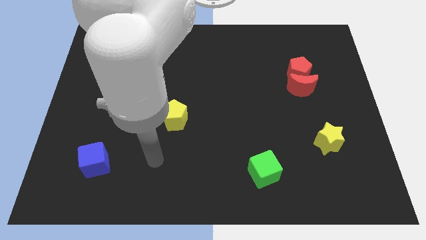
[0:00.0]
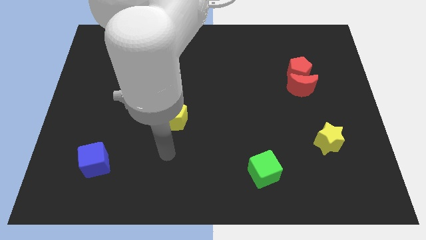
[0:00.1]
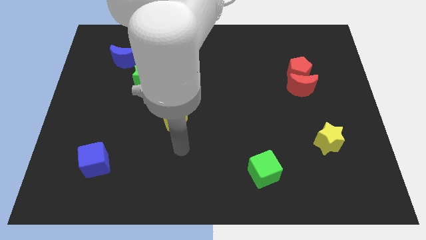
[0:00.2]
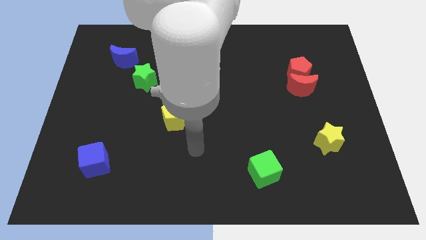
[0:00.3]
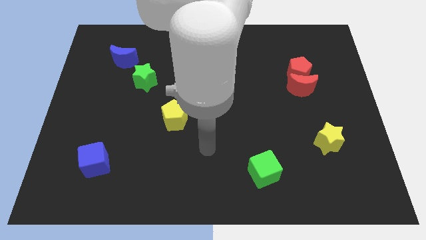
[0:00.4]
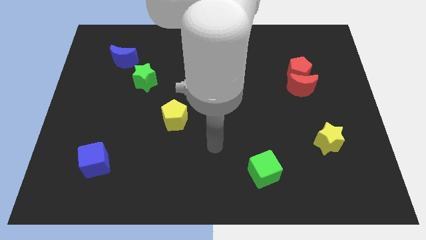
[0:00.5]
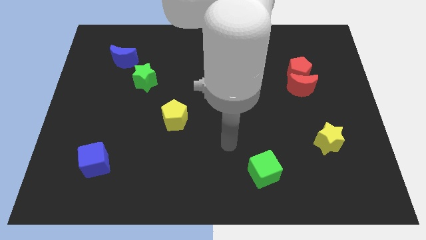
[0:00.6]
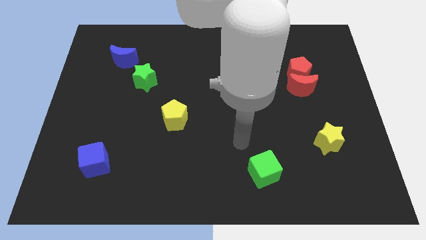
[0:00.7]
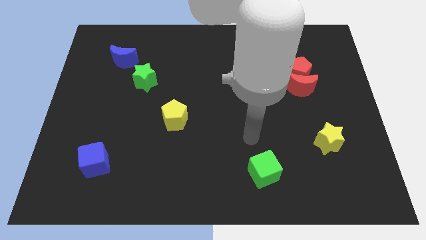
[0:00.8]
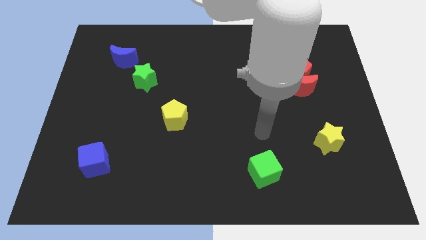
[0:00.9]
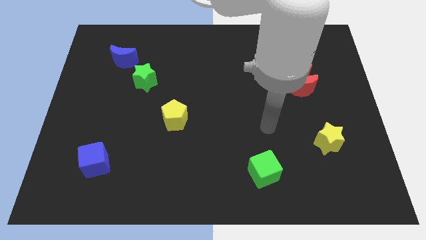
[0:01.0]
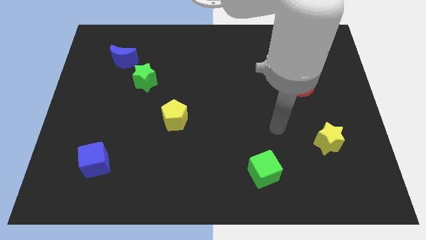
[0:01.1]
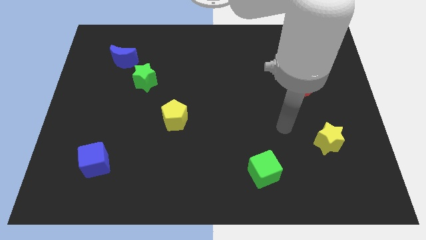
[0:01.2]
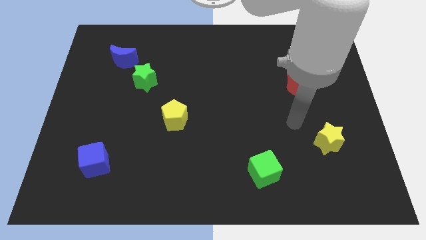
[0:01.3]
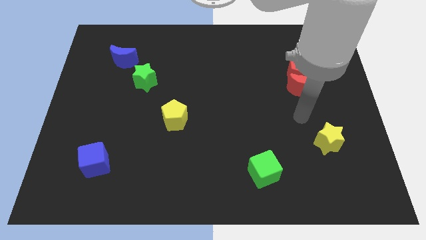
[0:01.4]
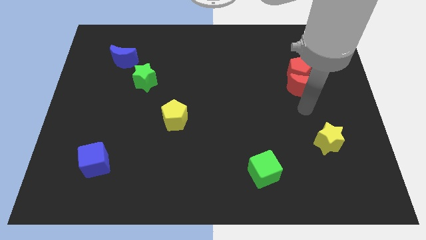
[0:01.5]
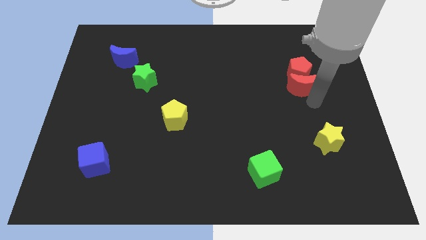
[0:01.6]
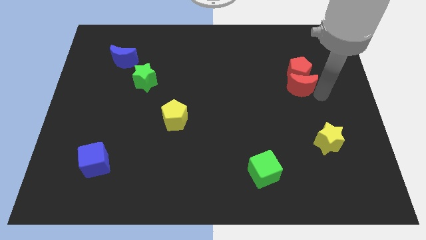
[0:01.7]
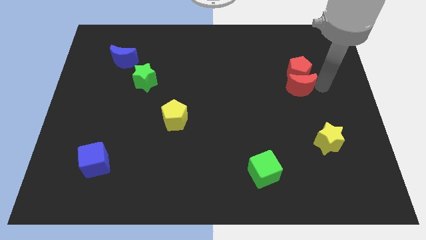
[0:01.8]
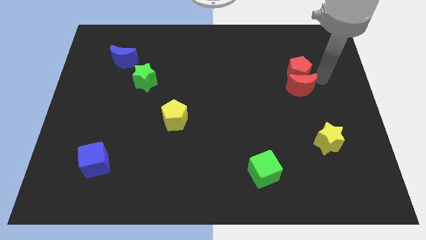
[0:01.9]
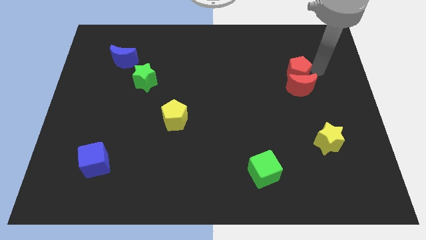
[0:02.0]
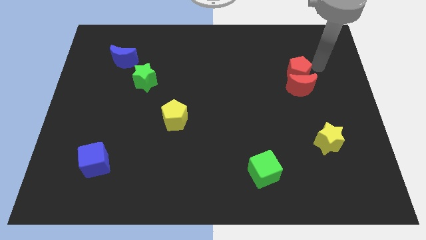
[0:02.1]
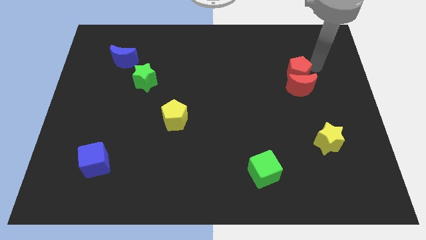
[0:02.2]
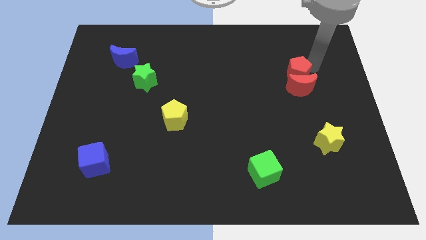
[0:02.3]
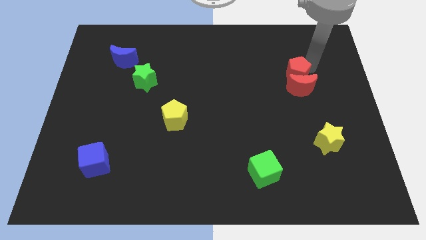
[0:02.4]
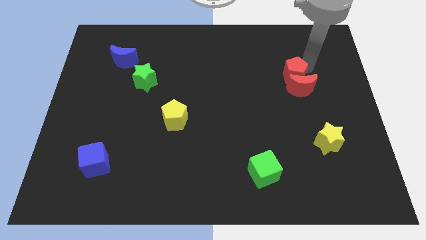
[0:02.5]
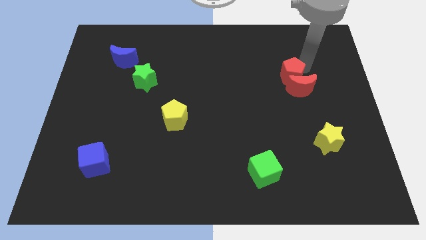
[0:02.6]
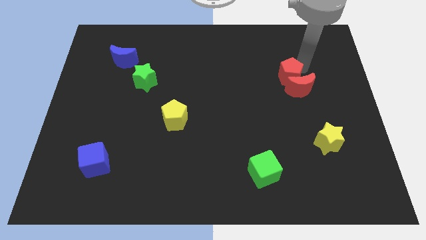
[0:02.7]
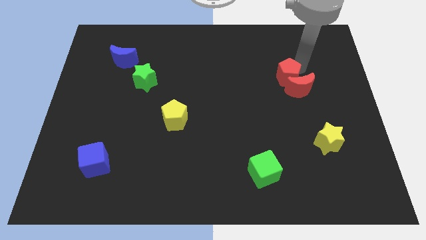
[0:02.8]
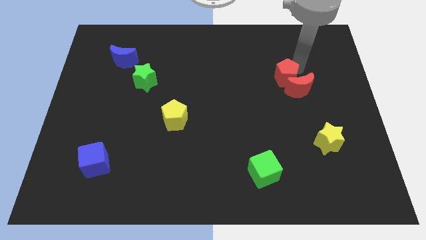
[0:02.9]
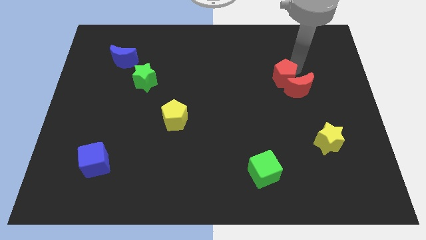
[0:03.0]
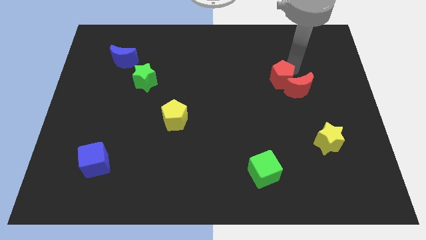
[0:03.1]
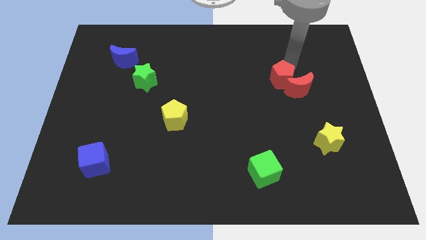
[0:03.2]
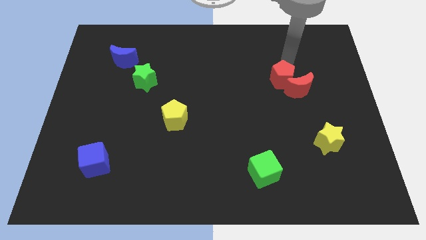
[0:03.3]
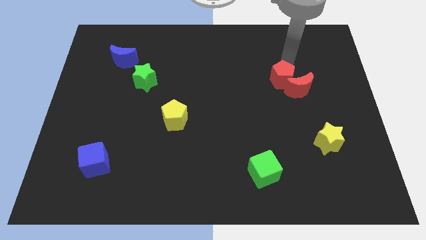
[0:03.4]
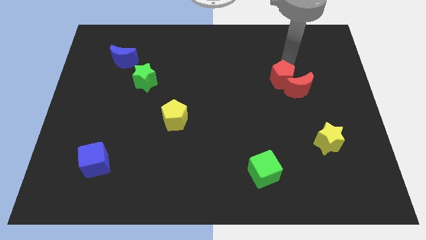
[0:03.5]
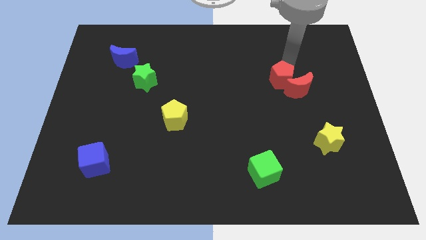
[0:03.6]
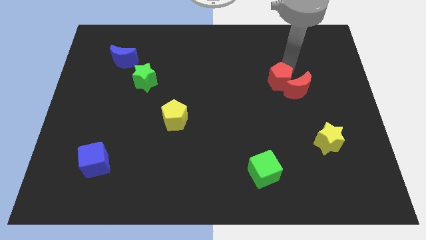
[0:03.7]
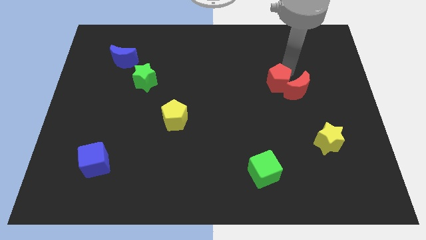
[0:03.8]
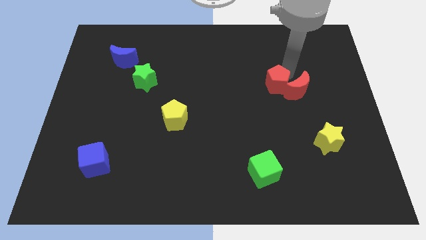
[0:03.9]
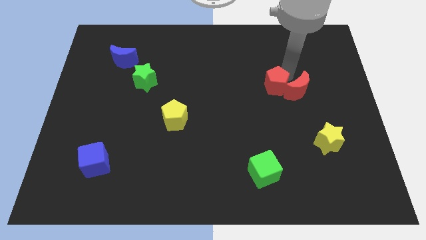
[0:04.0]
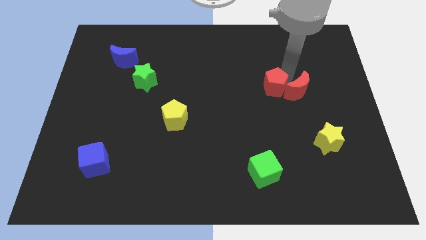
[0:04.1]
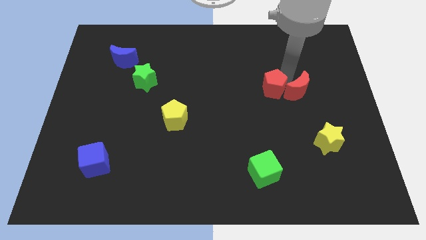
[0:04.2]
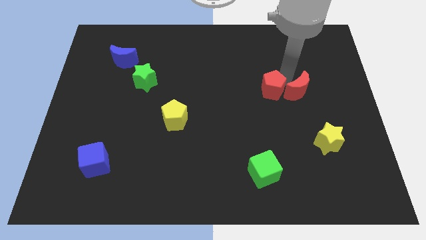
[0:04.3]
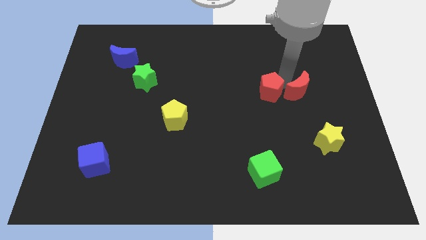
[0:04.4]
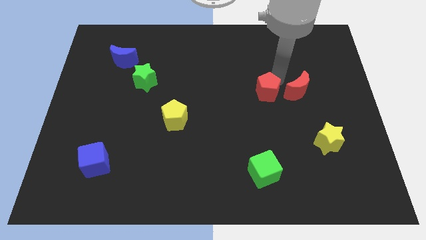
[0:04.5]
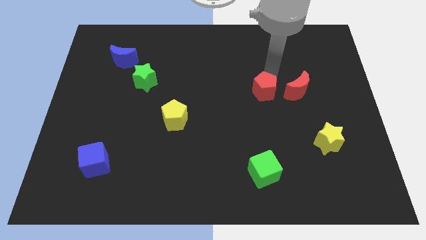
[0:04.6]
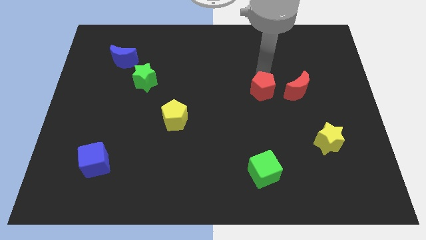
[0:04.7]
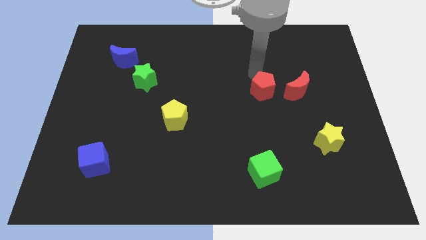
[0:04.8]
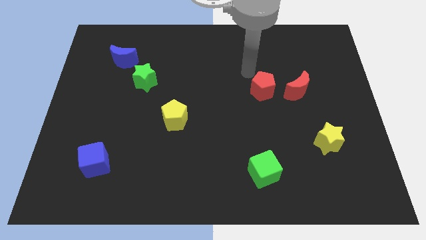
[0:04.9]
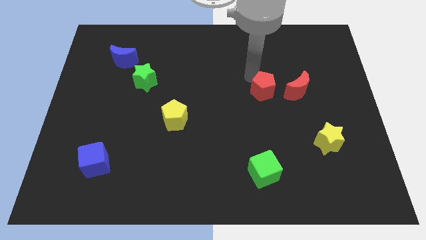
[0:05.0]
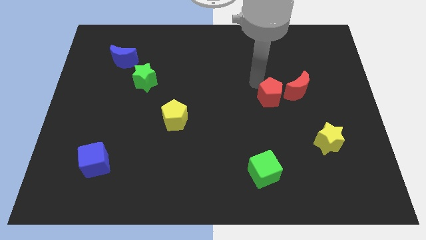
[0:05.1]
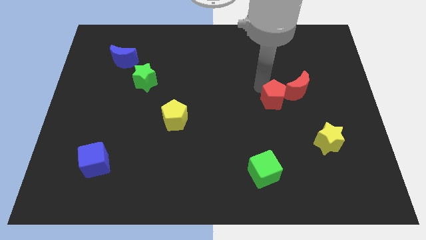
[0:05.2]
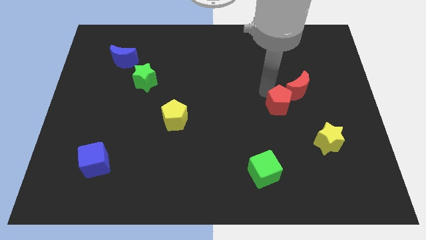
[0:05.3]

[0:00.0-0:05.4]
slightly move the red pentagon downwards

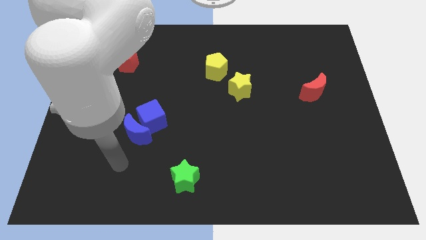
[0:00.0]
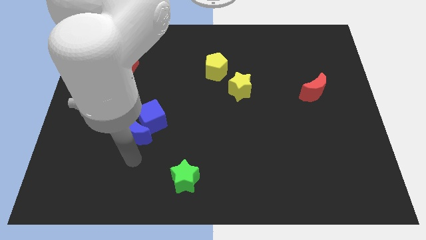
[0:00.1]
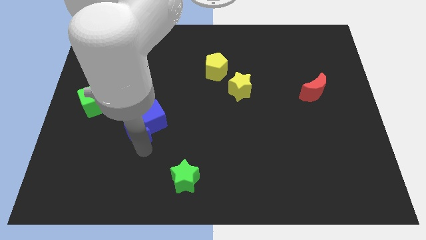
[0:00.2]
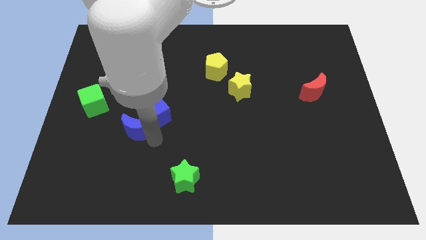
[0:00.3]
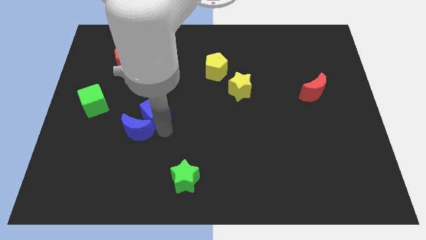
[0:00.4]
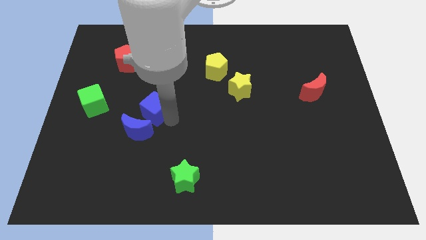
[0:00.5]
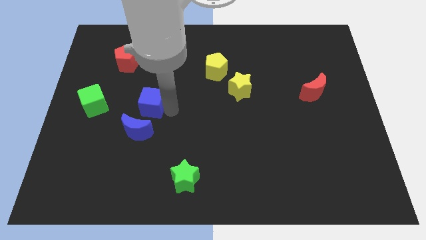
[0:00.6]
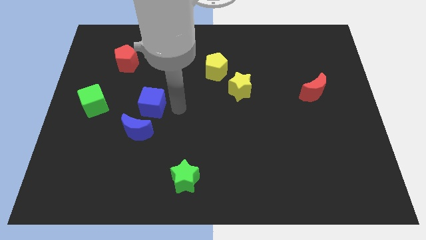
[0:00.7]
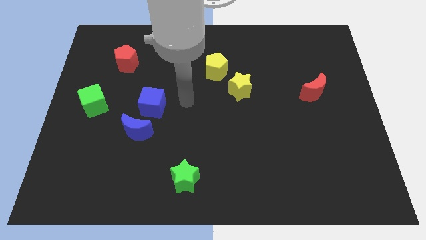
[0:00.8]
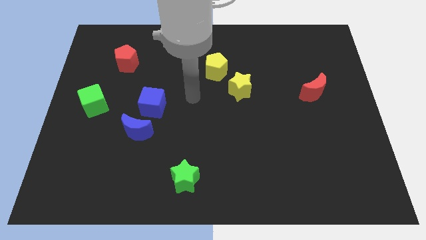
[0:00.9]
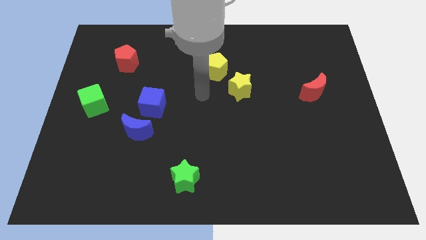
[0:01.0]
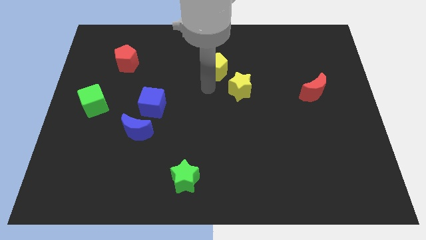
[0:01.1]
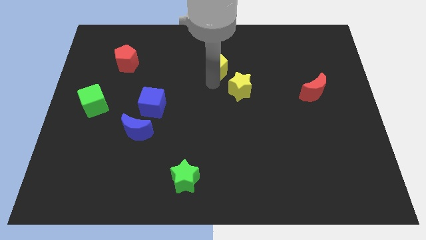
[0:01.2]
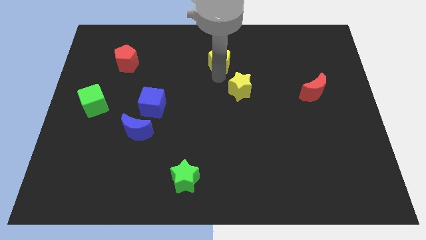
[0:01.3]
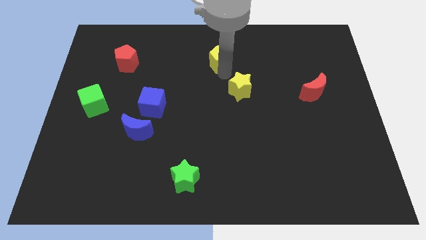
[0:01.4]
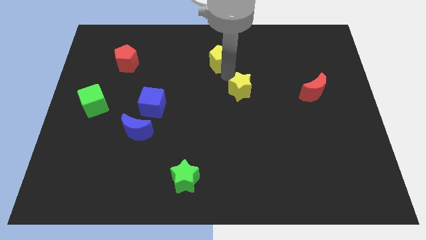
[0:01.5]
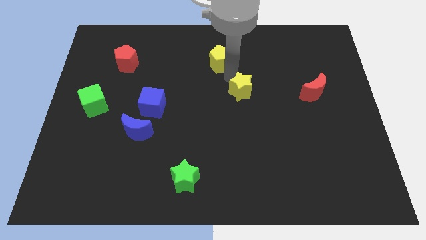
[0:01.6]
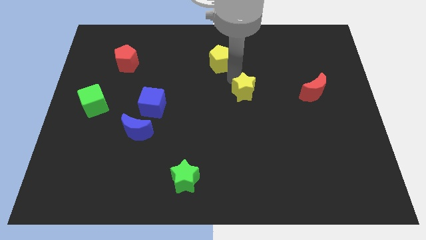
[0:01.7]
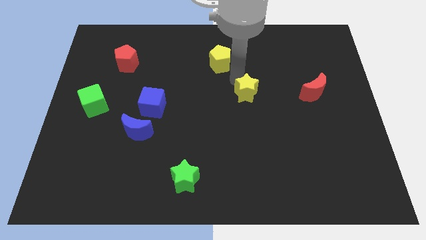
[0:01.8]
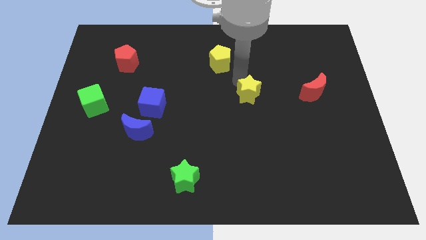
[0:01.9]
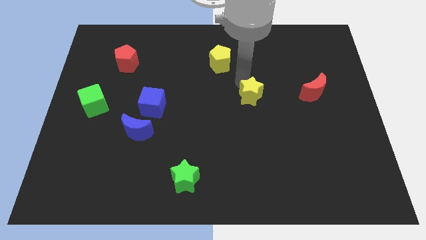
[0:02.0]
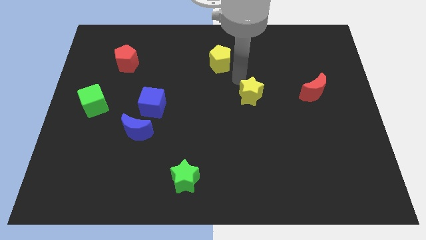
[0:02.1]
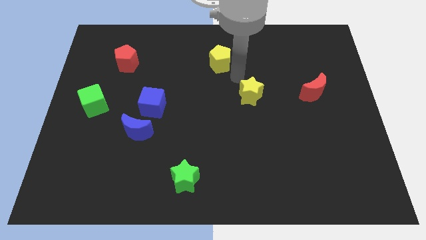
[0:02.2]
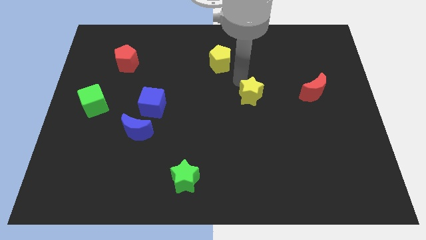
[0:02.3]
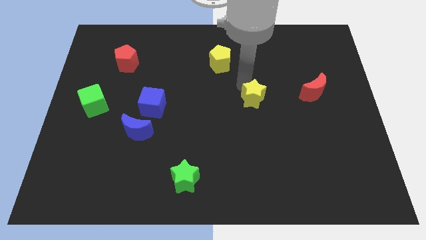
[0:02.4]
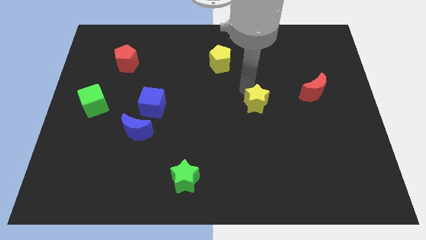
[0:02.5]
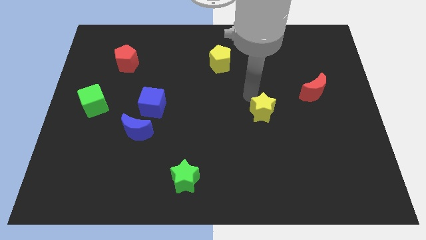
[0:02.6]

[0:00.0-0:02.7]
slightly slide the yellow star downwards and to the right
